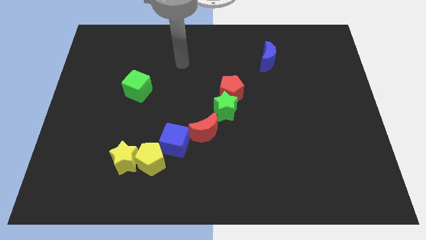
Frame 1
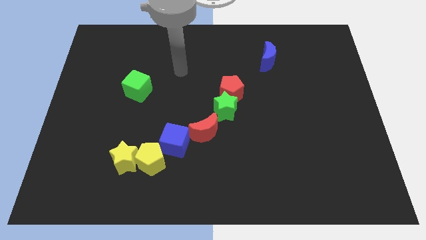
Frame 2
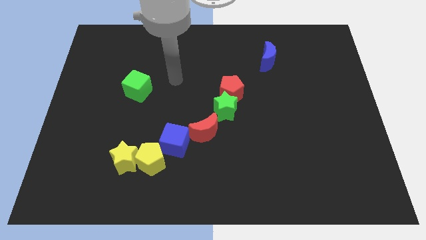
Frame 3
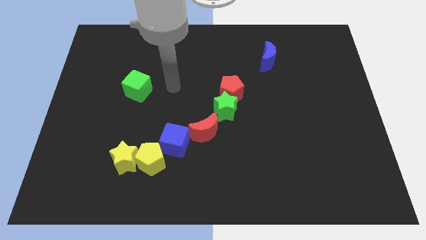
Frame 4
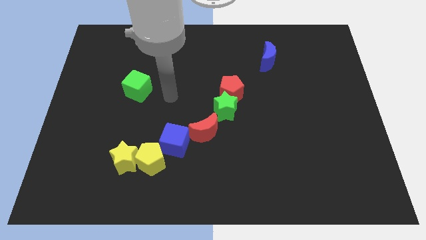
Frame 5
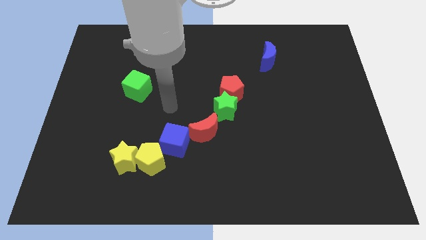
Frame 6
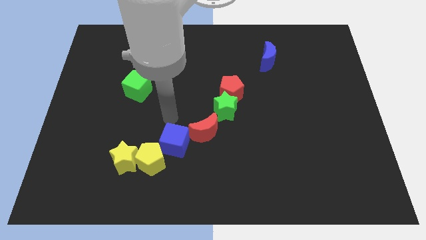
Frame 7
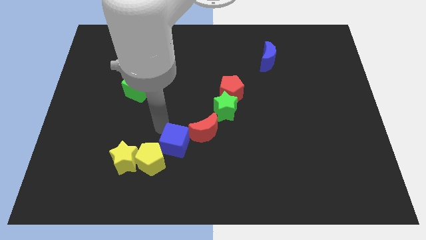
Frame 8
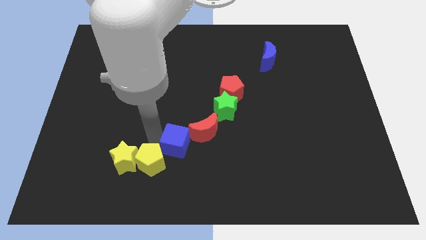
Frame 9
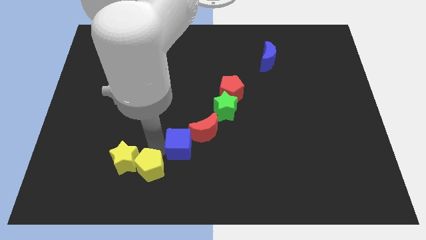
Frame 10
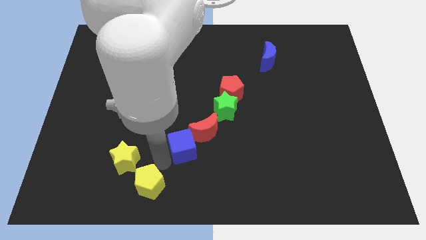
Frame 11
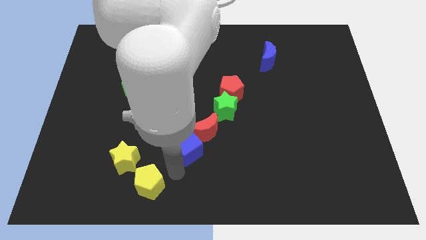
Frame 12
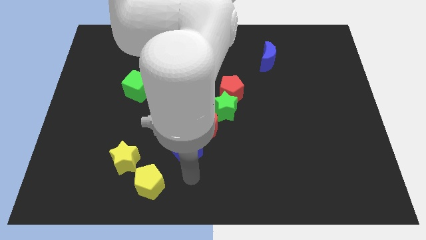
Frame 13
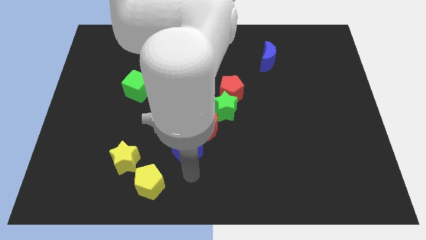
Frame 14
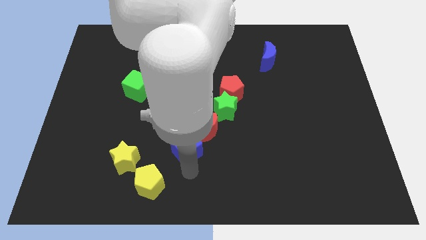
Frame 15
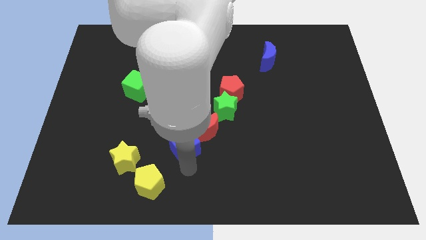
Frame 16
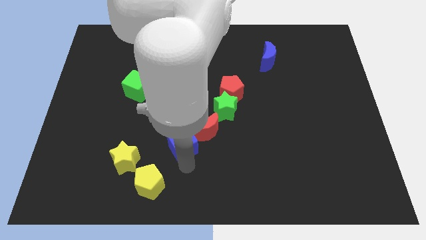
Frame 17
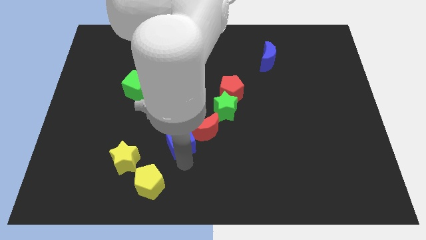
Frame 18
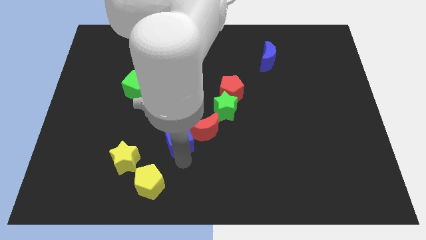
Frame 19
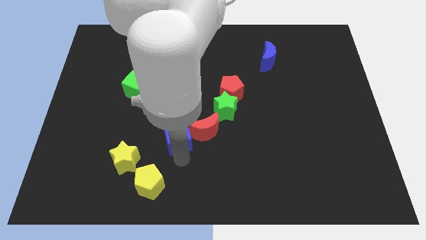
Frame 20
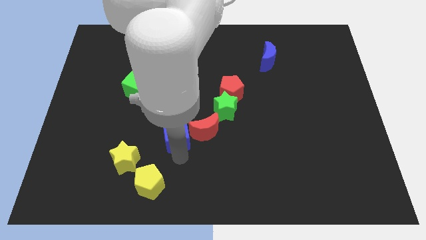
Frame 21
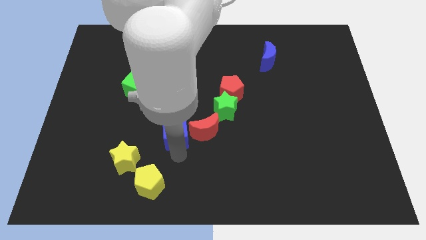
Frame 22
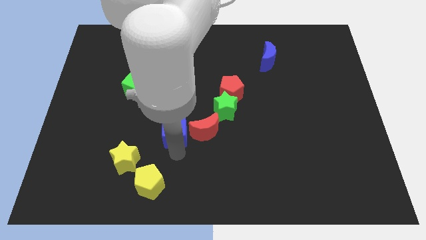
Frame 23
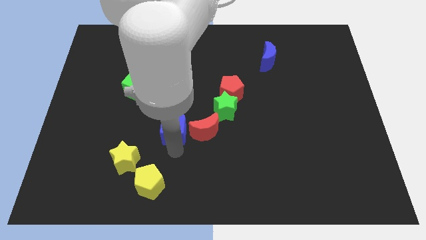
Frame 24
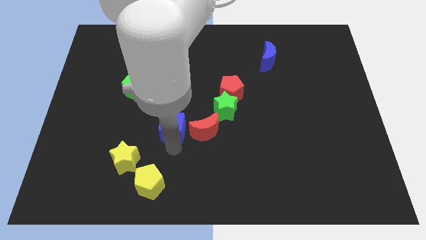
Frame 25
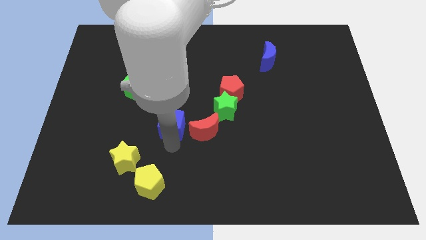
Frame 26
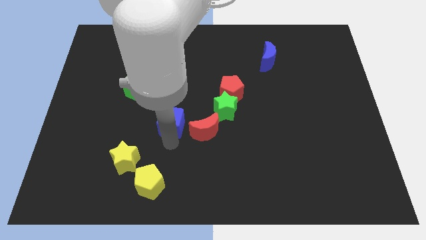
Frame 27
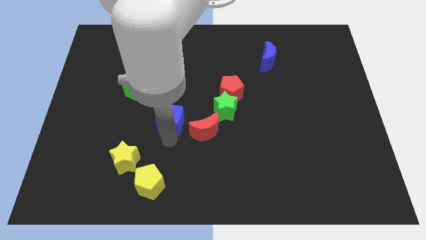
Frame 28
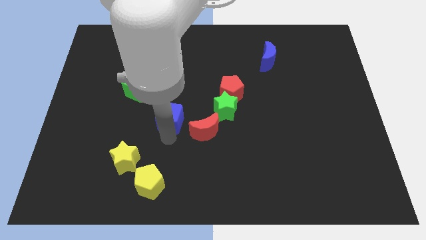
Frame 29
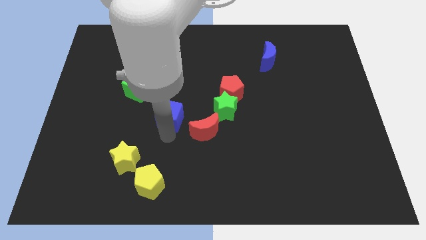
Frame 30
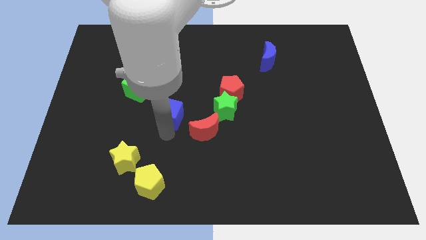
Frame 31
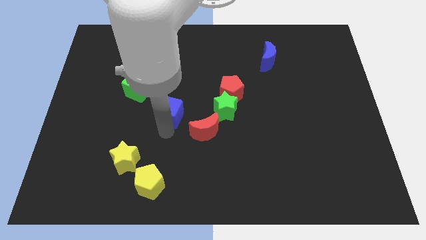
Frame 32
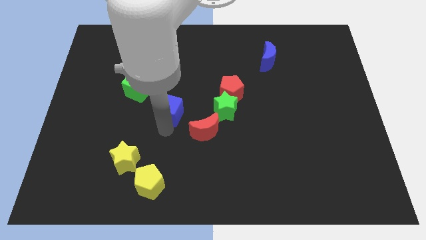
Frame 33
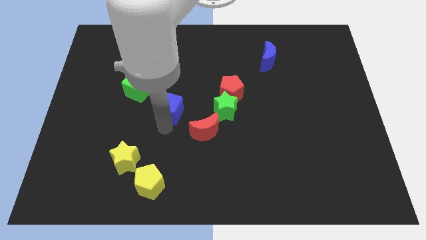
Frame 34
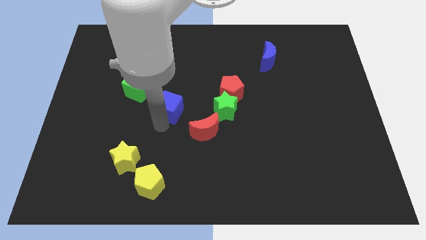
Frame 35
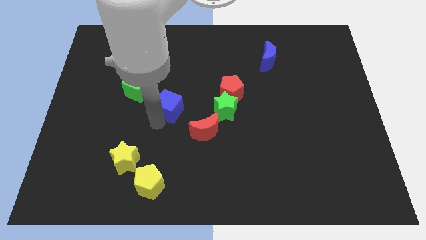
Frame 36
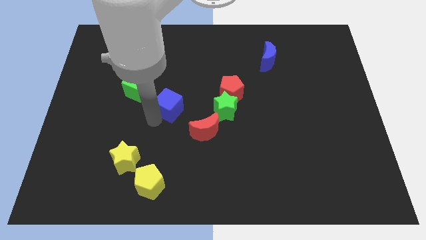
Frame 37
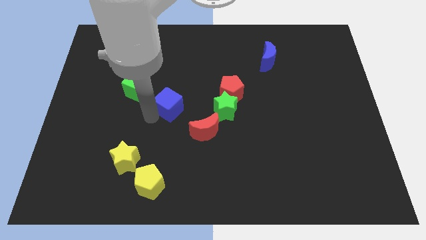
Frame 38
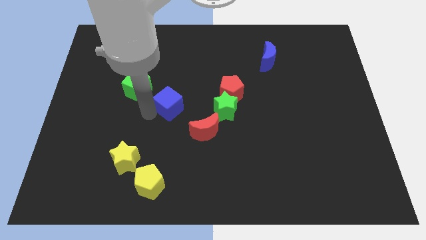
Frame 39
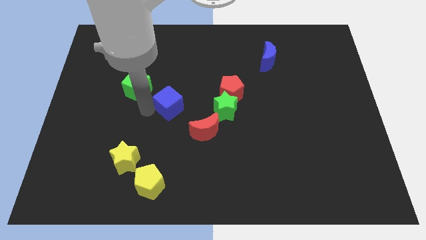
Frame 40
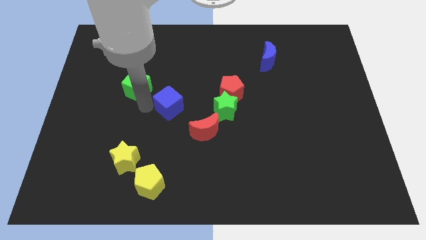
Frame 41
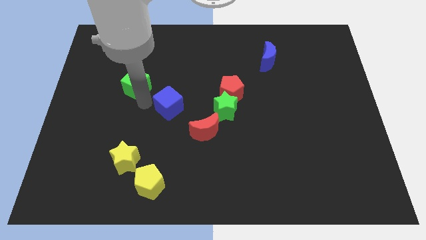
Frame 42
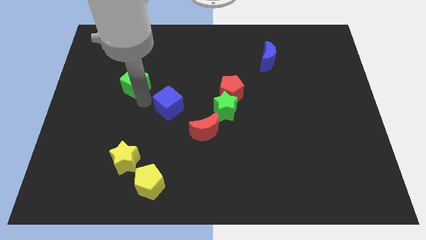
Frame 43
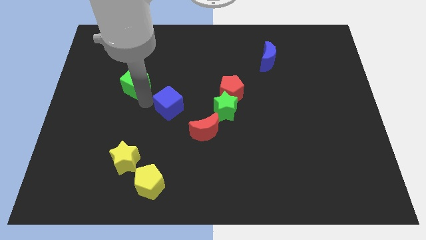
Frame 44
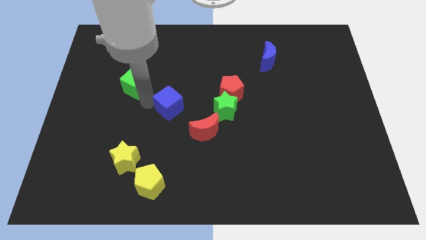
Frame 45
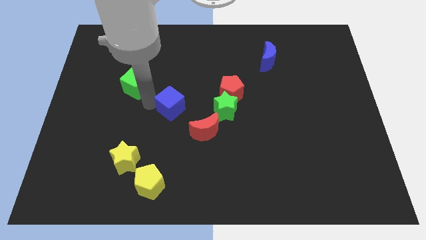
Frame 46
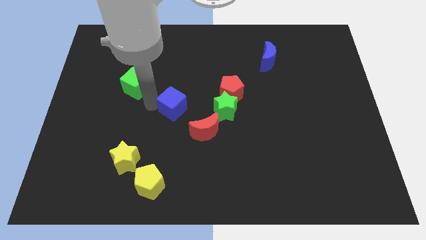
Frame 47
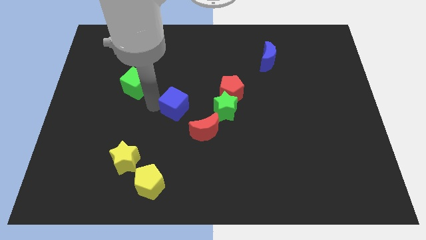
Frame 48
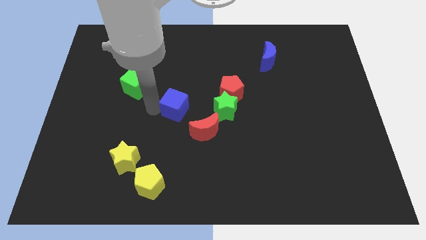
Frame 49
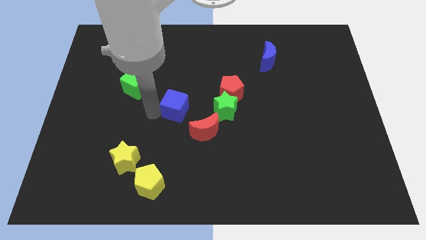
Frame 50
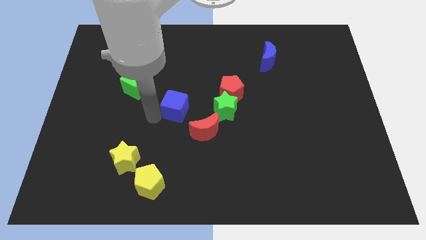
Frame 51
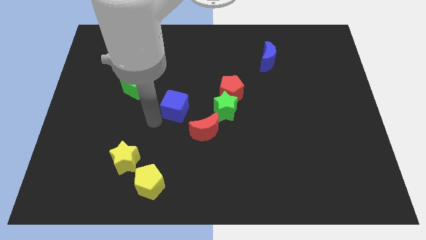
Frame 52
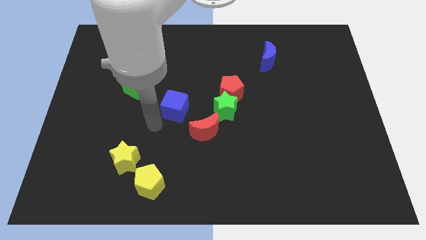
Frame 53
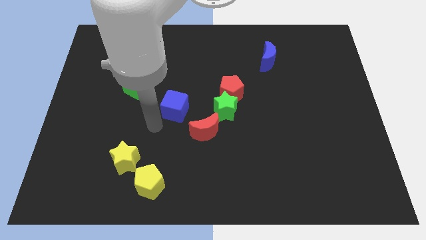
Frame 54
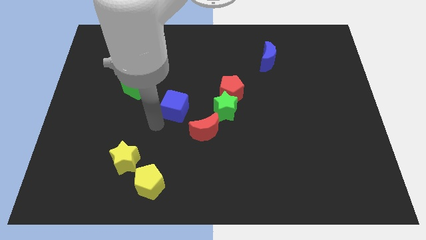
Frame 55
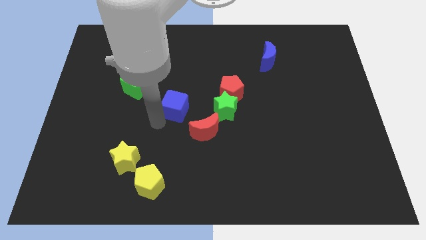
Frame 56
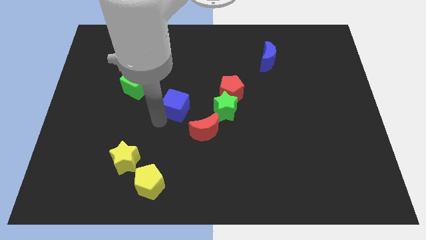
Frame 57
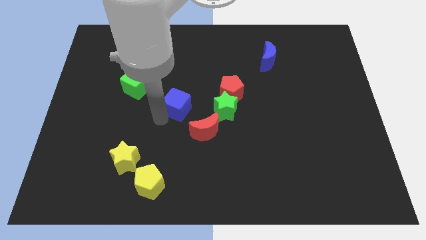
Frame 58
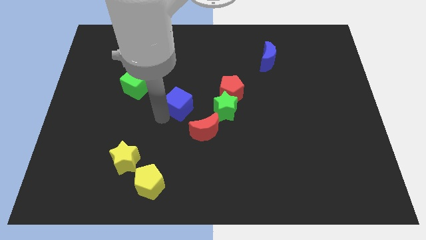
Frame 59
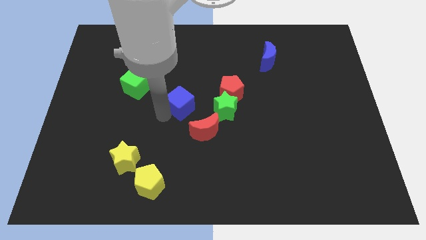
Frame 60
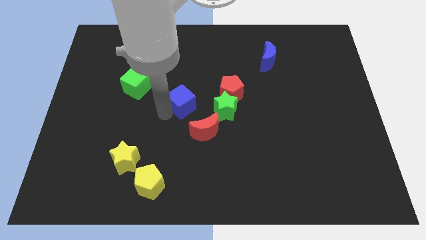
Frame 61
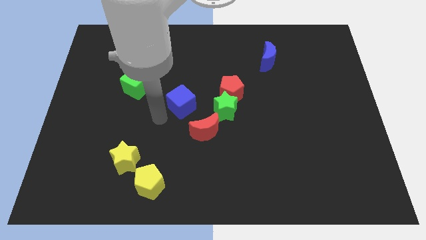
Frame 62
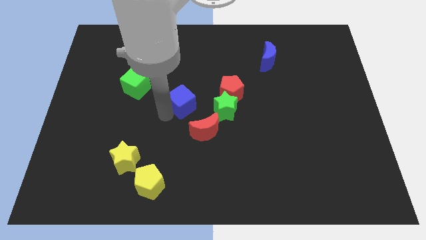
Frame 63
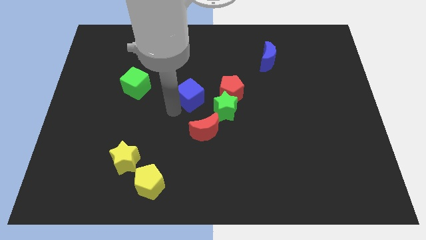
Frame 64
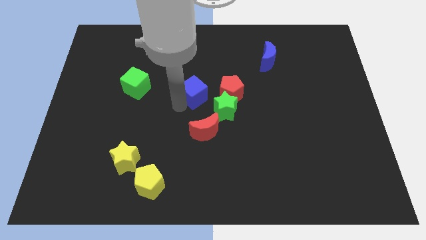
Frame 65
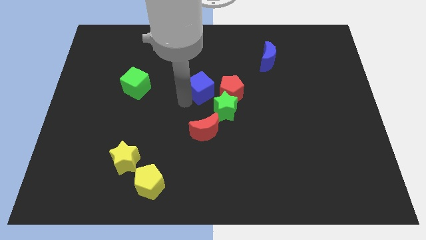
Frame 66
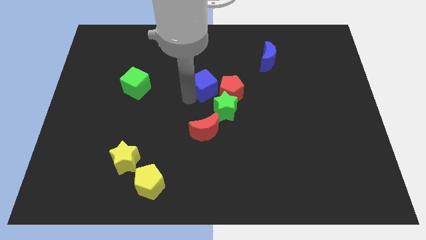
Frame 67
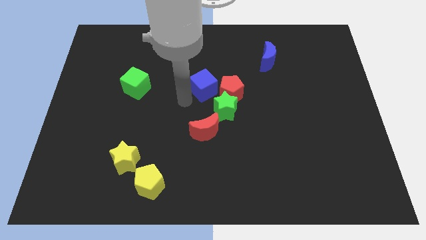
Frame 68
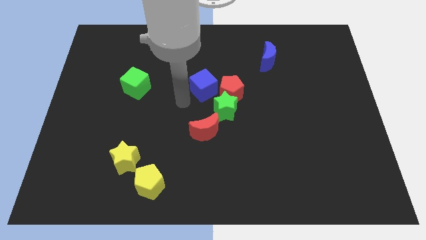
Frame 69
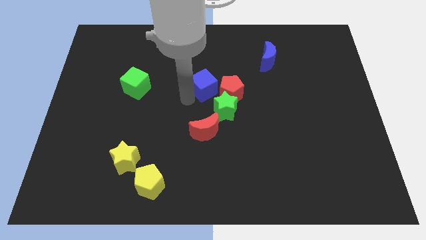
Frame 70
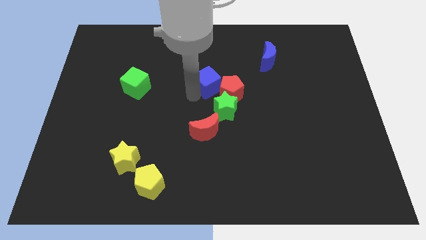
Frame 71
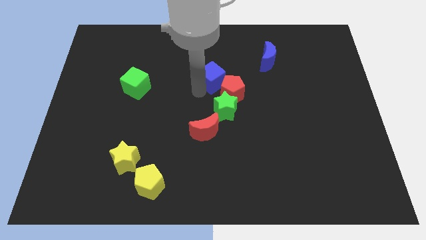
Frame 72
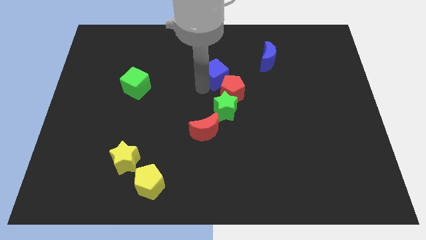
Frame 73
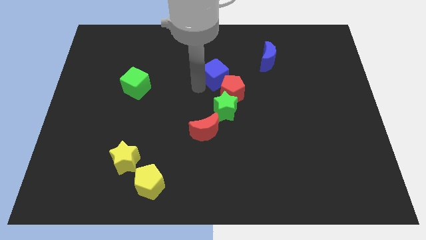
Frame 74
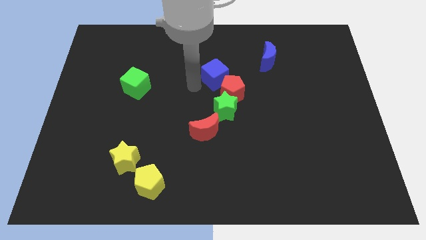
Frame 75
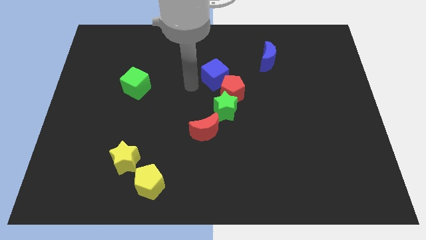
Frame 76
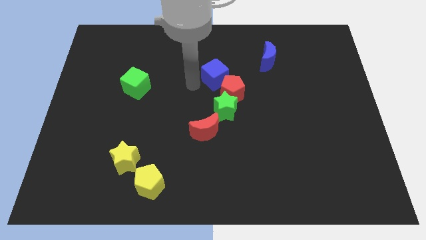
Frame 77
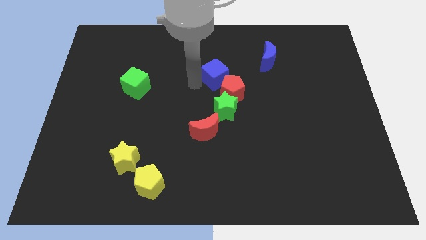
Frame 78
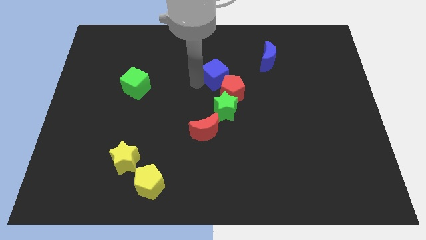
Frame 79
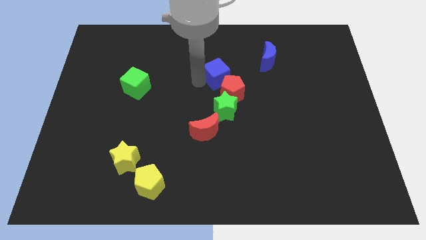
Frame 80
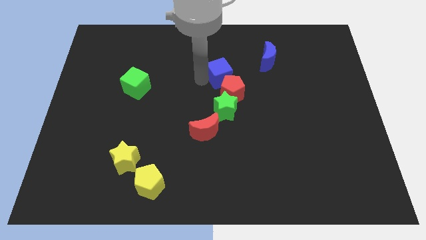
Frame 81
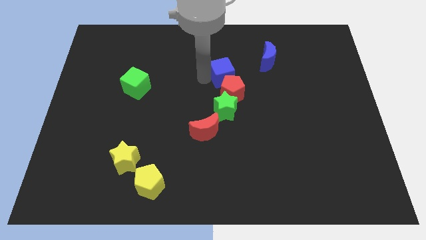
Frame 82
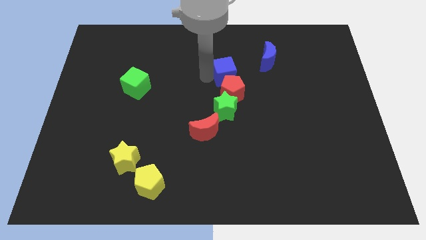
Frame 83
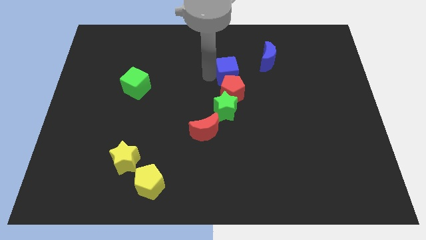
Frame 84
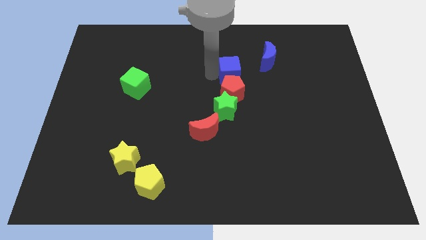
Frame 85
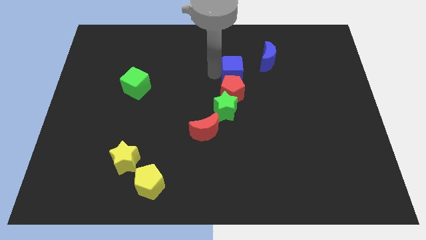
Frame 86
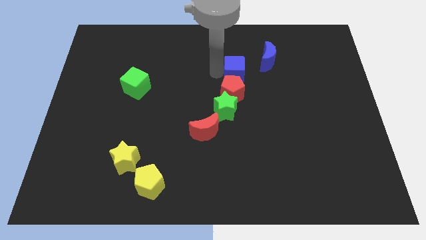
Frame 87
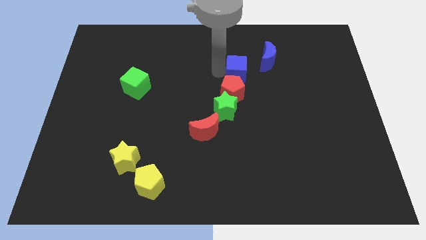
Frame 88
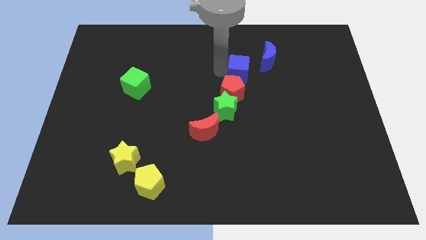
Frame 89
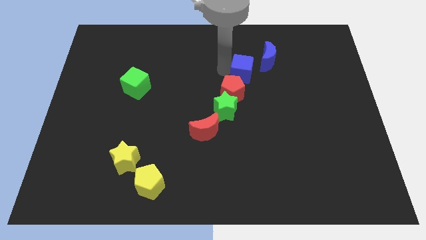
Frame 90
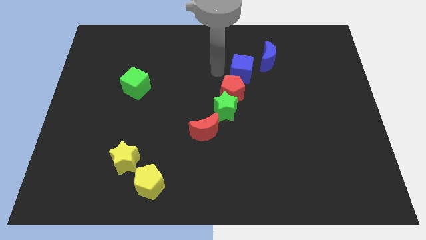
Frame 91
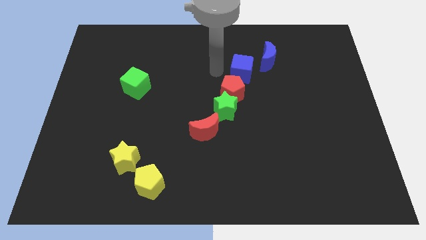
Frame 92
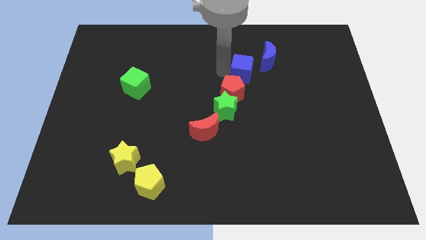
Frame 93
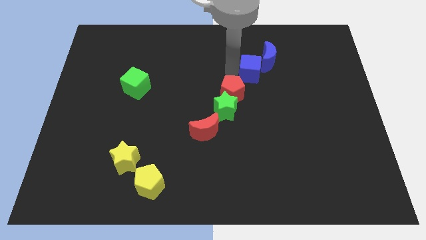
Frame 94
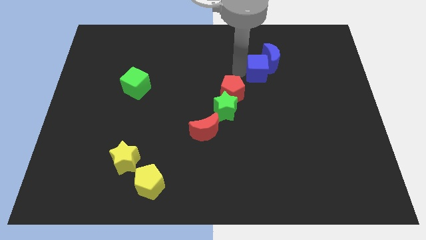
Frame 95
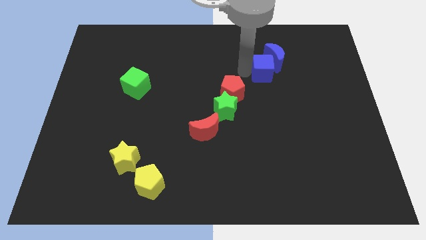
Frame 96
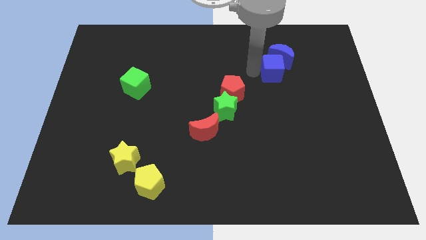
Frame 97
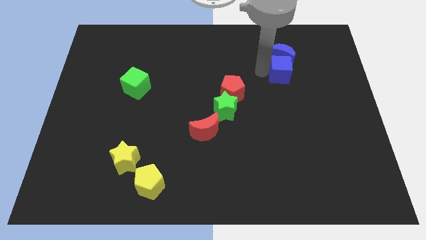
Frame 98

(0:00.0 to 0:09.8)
slide the blue cube to the bottom right side of the blue moon
